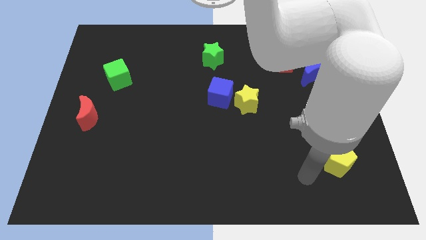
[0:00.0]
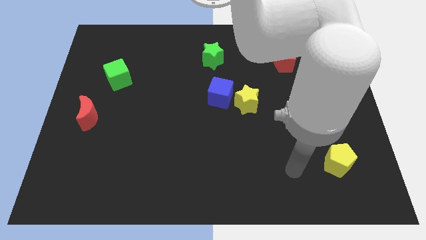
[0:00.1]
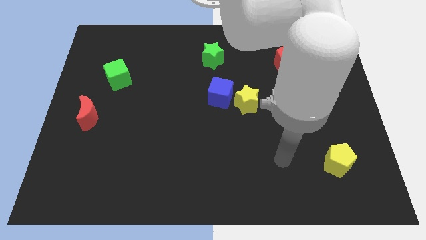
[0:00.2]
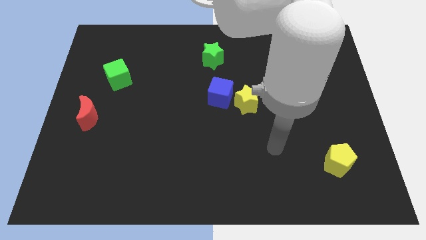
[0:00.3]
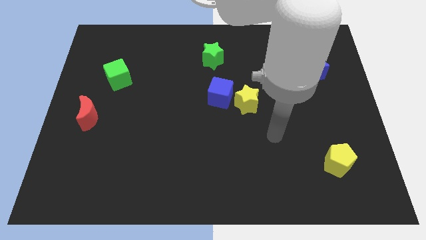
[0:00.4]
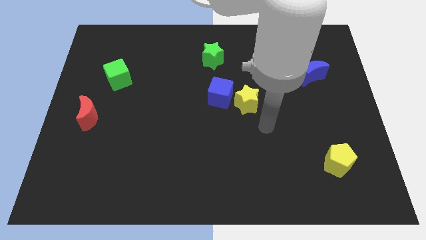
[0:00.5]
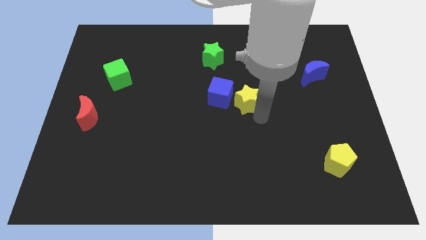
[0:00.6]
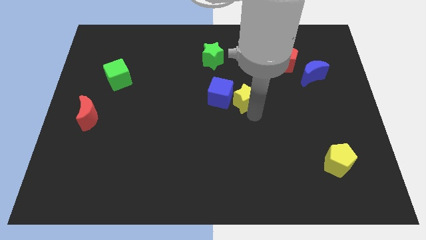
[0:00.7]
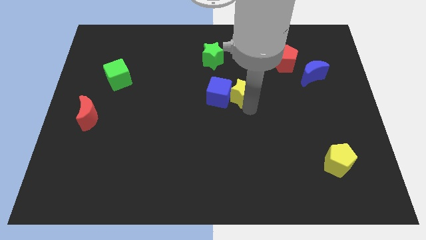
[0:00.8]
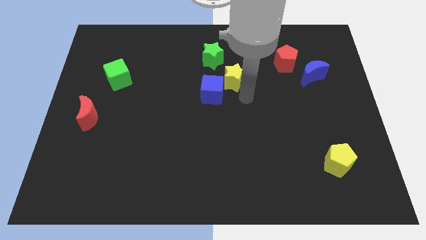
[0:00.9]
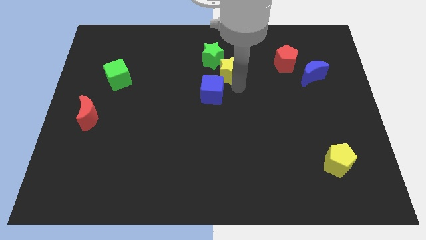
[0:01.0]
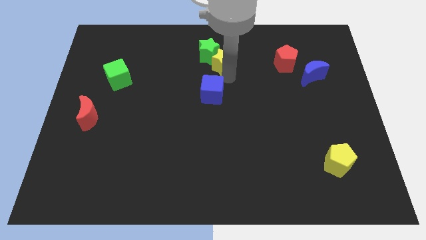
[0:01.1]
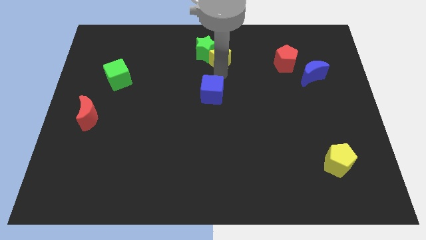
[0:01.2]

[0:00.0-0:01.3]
move the blue cube away from the yellow star

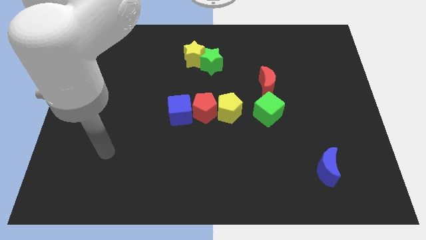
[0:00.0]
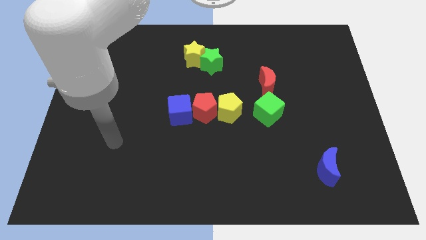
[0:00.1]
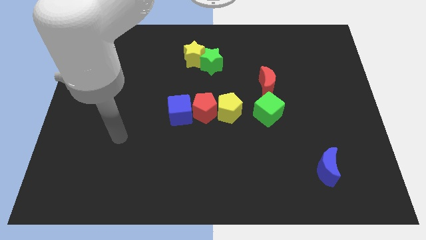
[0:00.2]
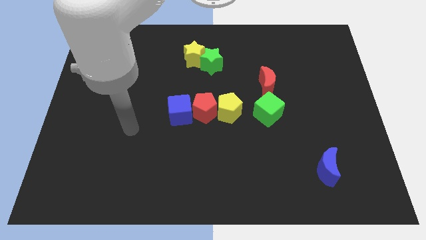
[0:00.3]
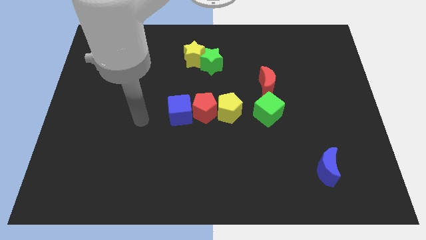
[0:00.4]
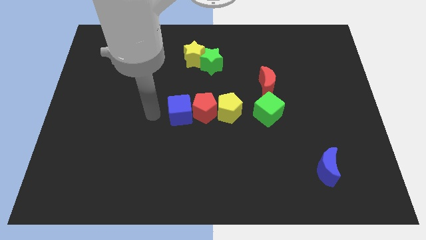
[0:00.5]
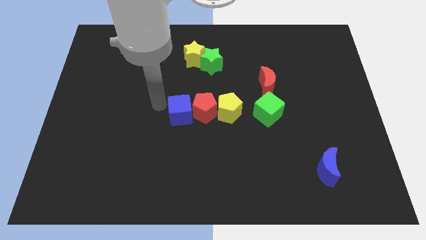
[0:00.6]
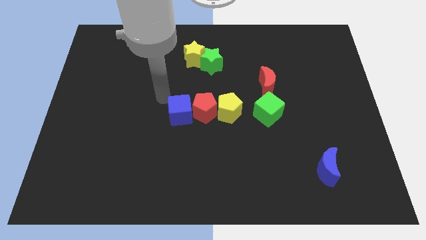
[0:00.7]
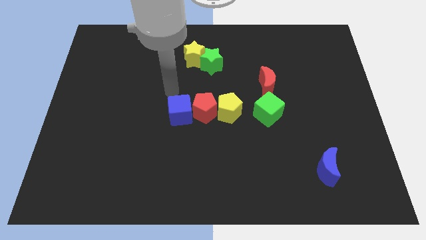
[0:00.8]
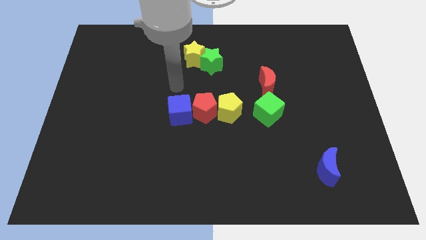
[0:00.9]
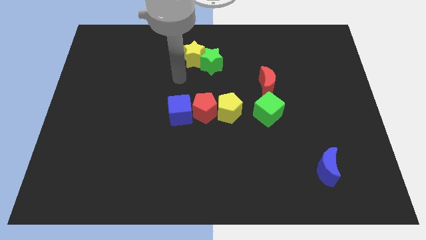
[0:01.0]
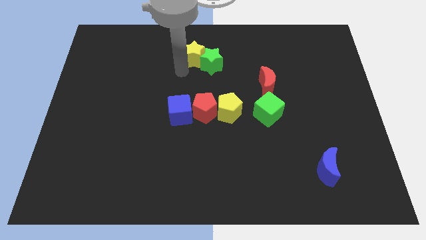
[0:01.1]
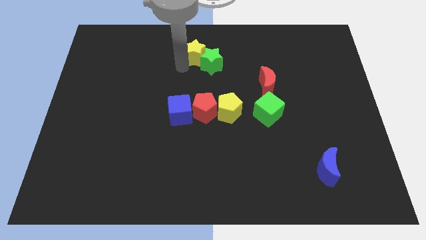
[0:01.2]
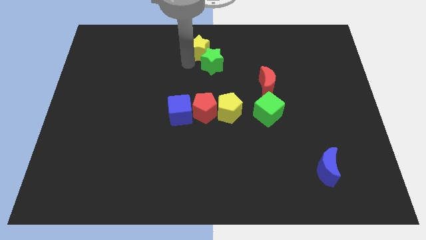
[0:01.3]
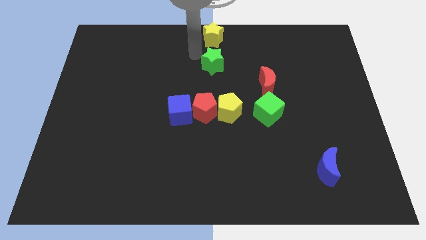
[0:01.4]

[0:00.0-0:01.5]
separate the green star from the yellow star

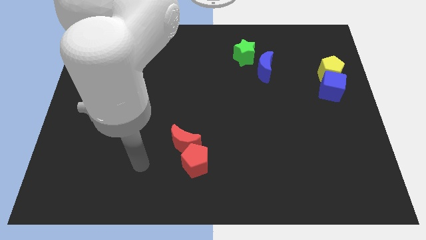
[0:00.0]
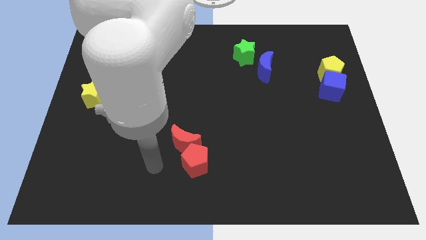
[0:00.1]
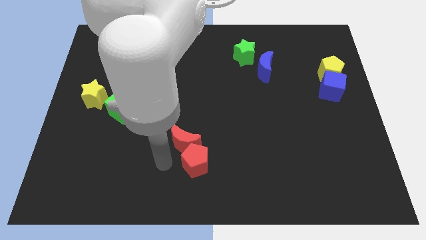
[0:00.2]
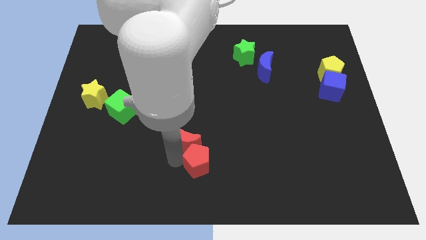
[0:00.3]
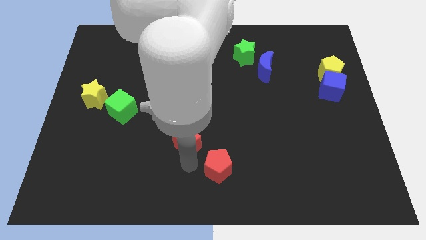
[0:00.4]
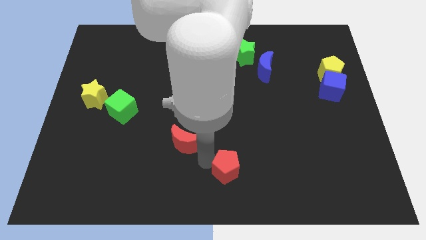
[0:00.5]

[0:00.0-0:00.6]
pull the red moon apart from the red pentagon

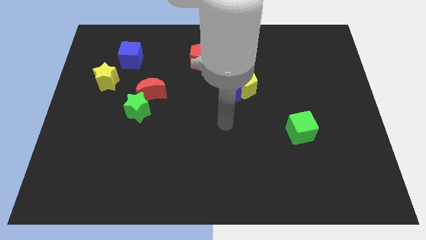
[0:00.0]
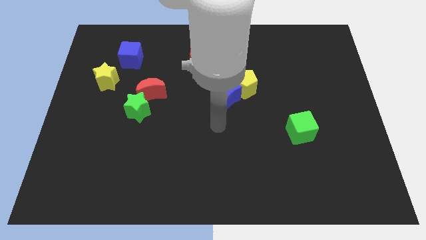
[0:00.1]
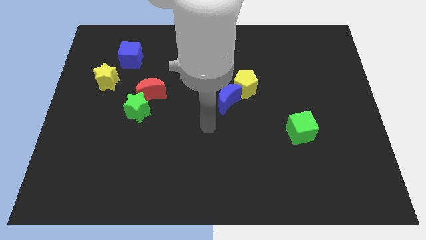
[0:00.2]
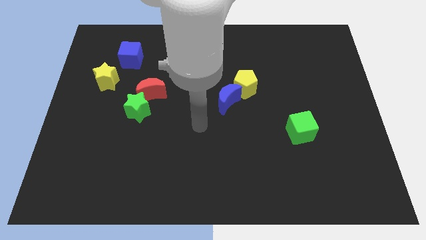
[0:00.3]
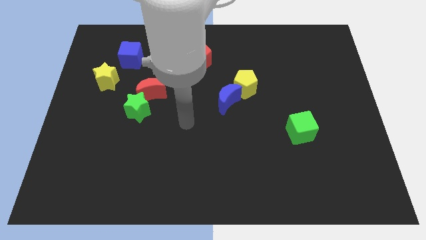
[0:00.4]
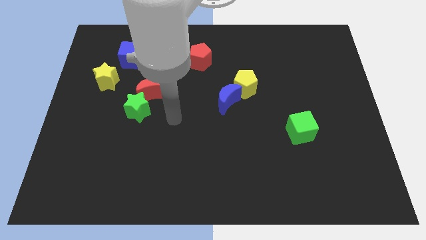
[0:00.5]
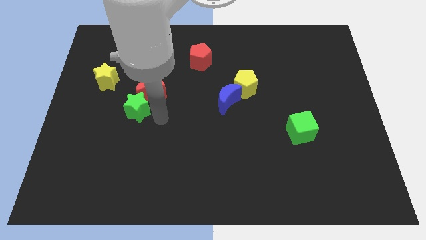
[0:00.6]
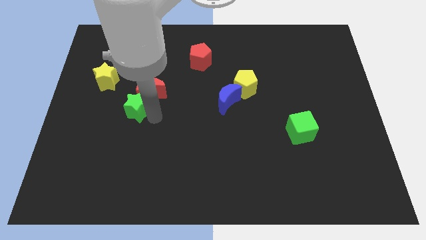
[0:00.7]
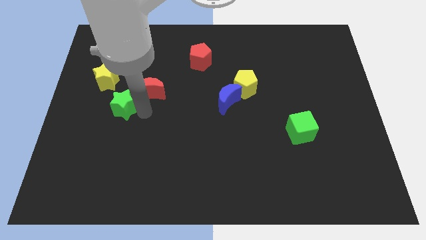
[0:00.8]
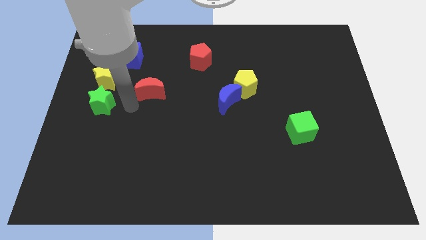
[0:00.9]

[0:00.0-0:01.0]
pull the red moon apart from the green star

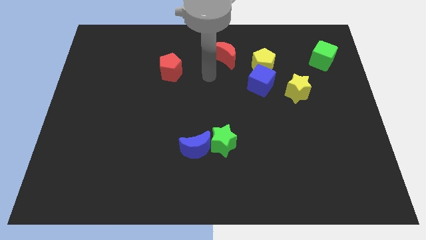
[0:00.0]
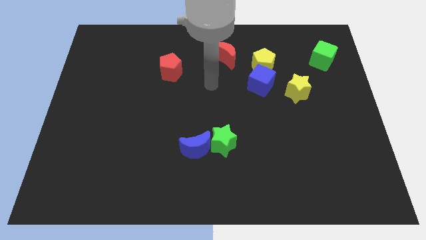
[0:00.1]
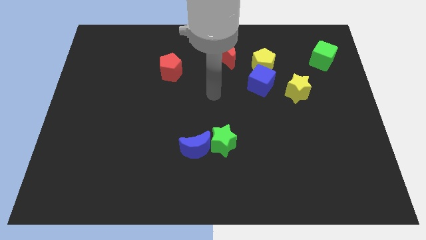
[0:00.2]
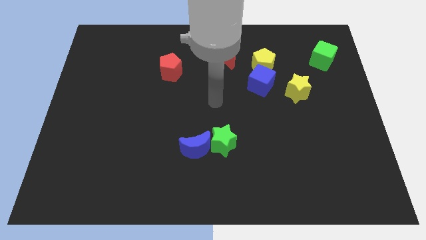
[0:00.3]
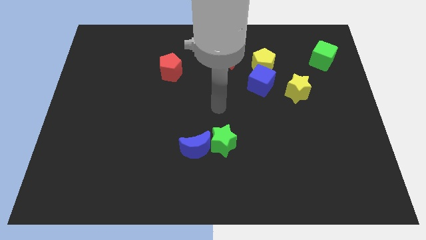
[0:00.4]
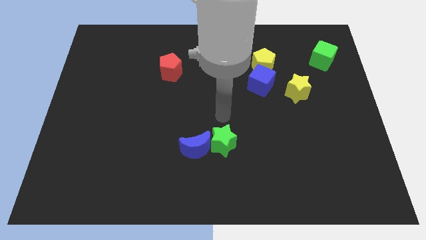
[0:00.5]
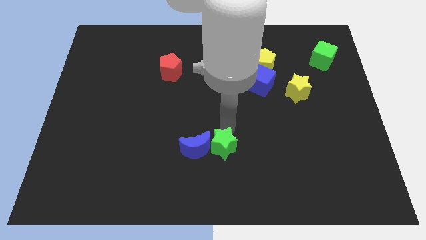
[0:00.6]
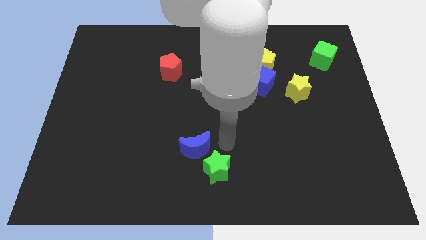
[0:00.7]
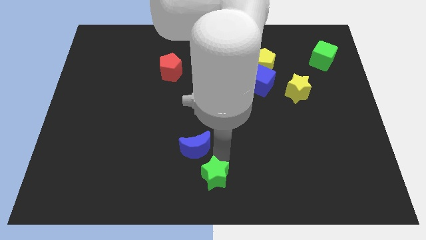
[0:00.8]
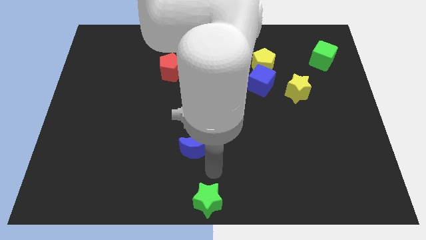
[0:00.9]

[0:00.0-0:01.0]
move the blue moon away from the green star

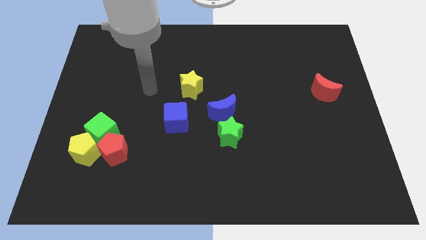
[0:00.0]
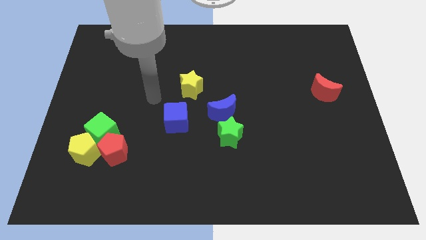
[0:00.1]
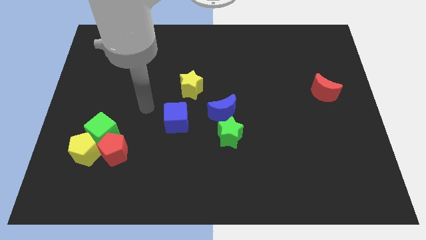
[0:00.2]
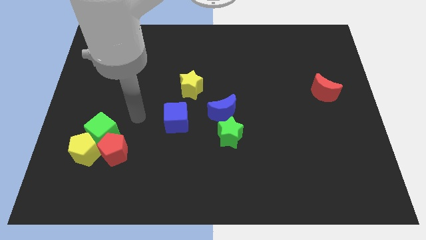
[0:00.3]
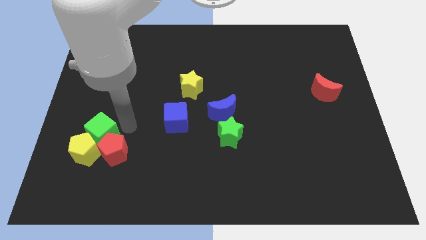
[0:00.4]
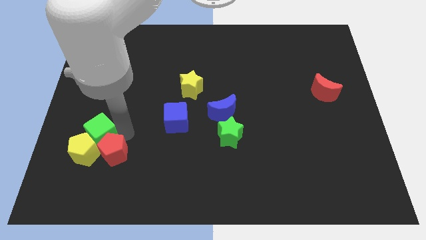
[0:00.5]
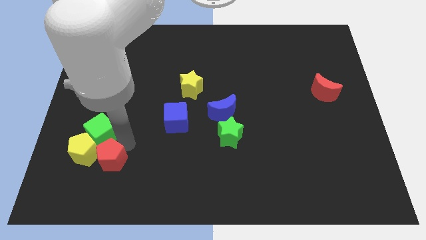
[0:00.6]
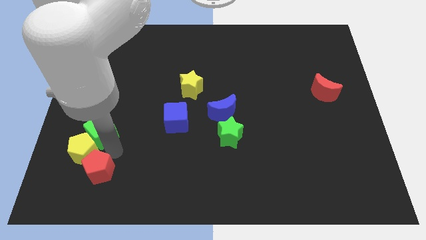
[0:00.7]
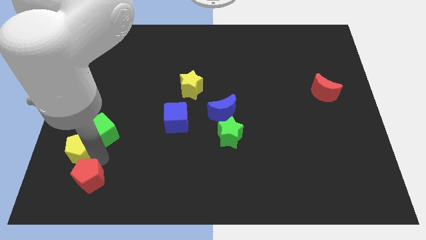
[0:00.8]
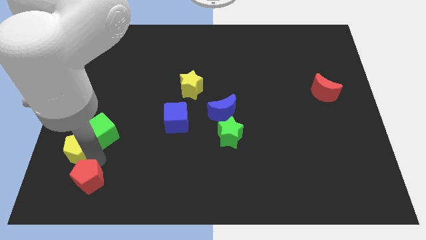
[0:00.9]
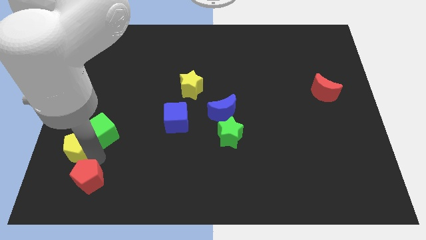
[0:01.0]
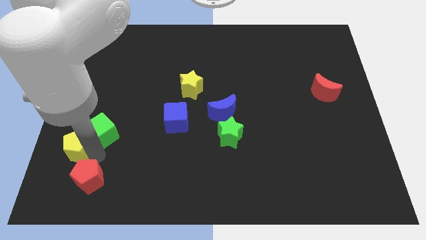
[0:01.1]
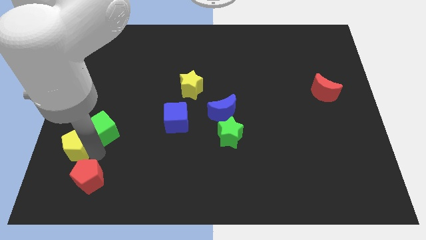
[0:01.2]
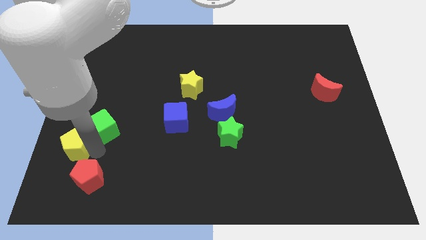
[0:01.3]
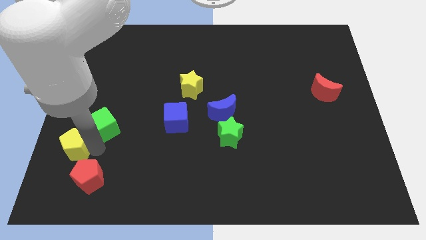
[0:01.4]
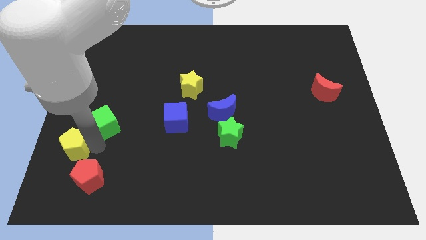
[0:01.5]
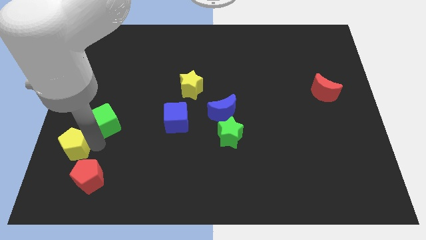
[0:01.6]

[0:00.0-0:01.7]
pull the green cube apart from the yellow pentagon and red pentagon

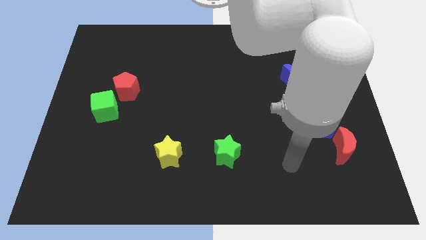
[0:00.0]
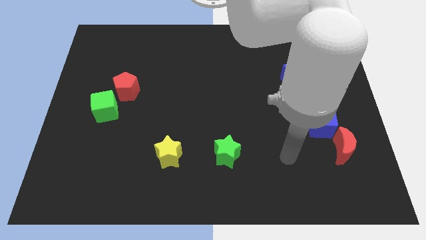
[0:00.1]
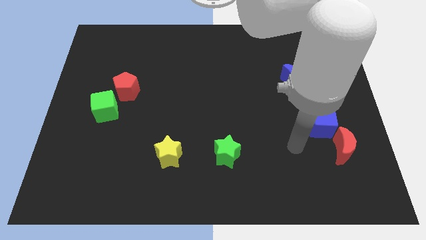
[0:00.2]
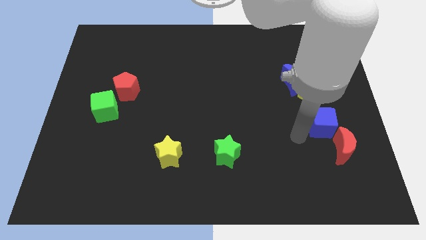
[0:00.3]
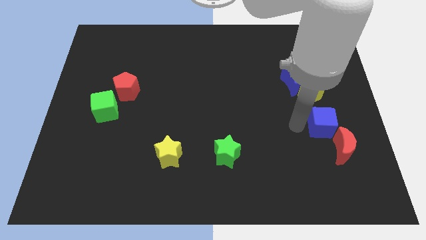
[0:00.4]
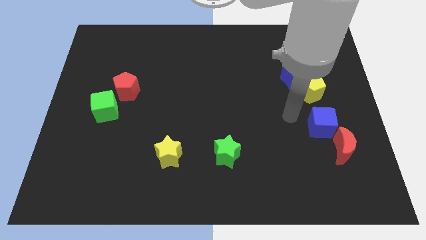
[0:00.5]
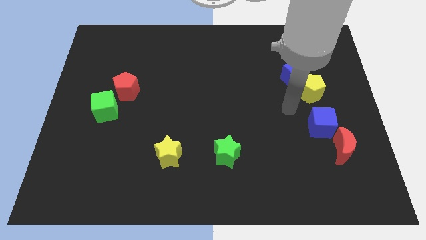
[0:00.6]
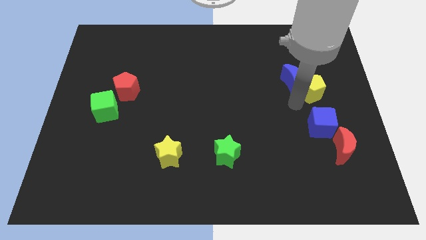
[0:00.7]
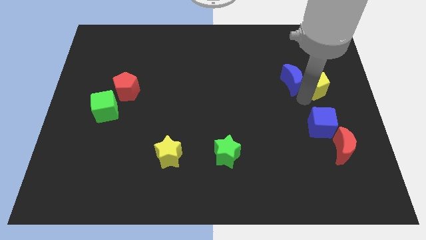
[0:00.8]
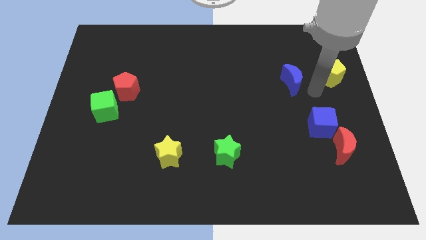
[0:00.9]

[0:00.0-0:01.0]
pull the blue moon apart from the yellow pentagon

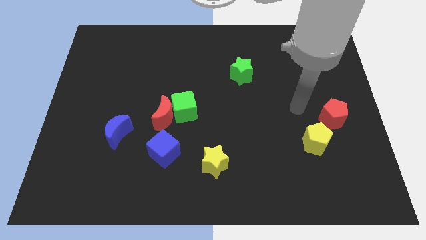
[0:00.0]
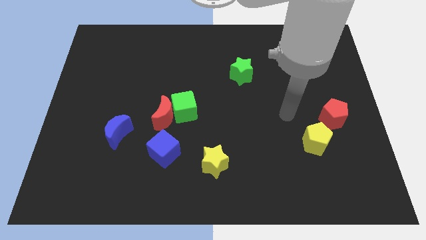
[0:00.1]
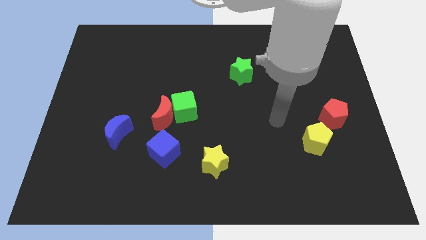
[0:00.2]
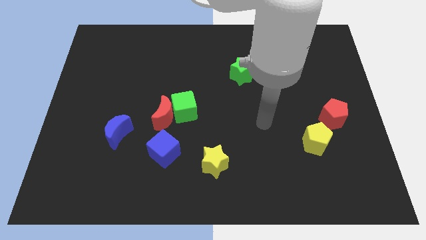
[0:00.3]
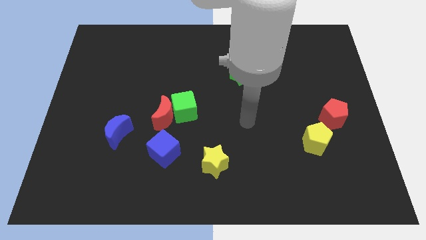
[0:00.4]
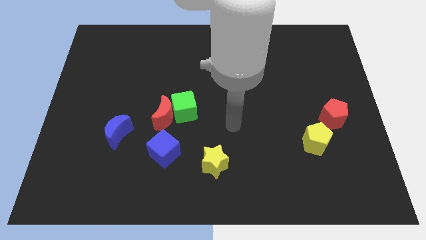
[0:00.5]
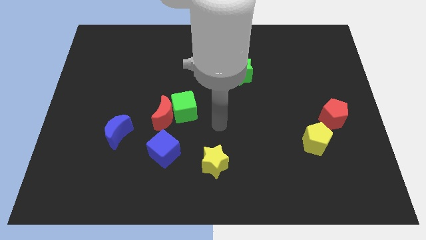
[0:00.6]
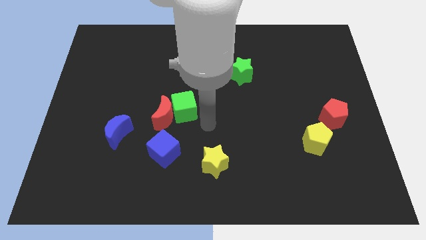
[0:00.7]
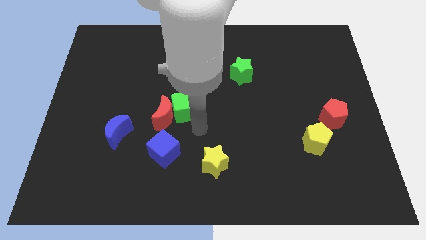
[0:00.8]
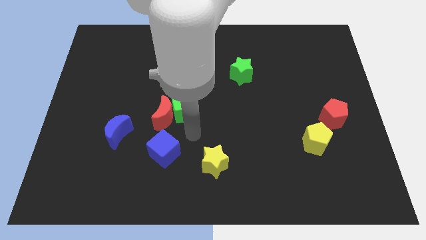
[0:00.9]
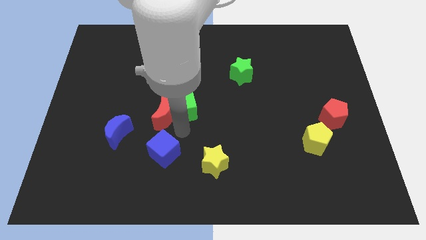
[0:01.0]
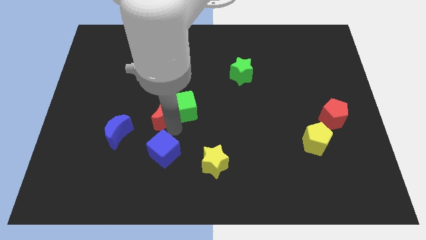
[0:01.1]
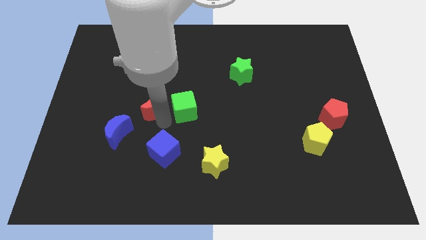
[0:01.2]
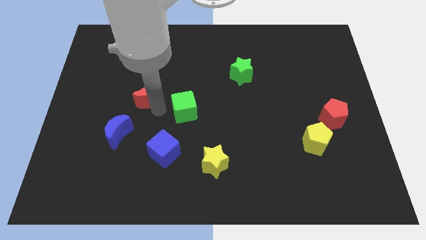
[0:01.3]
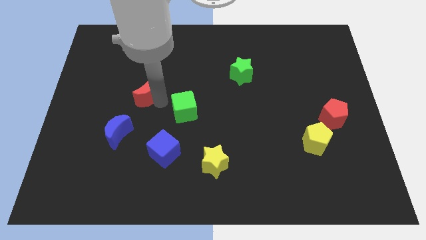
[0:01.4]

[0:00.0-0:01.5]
separate the green cube from the red moon
